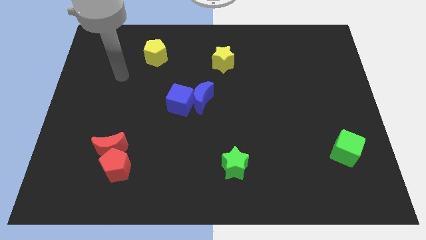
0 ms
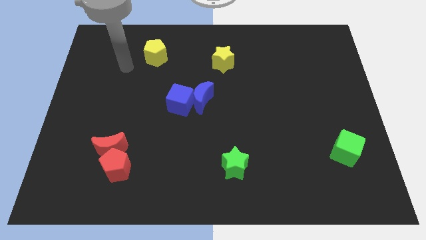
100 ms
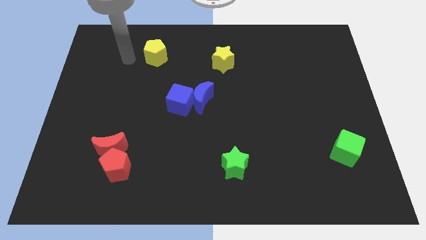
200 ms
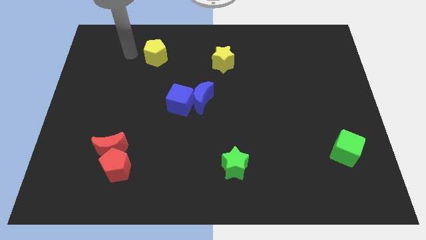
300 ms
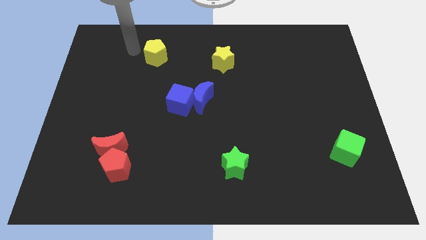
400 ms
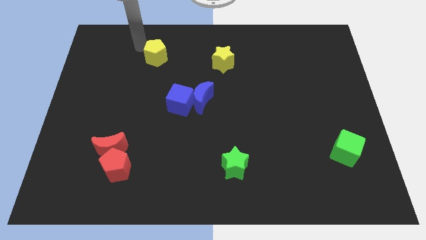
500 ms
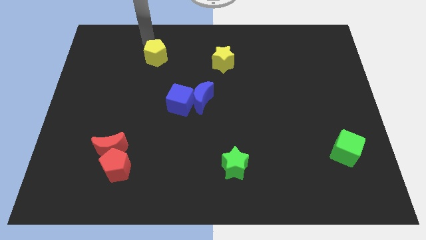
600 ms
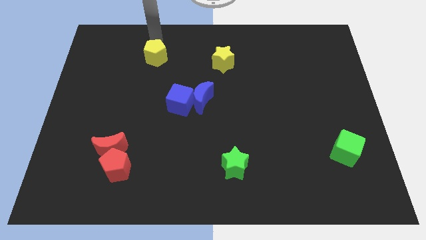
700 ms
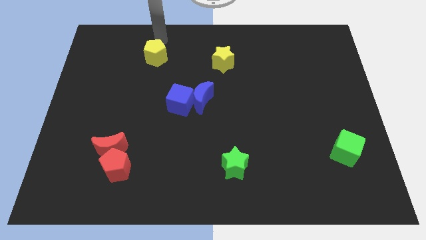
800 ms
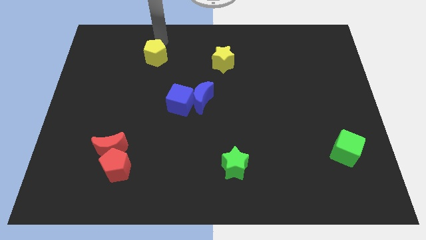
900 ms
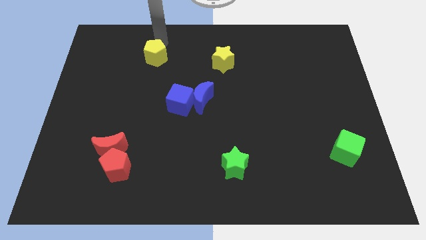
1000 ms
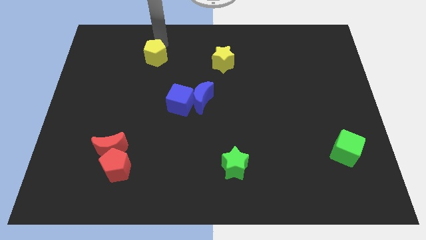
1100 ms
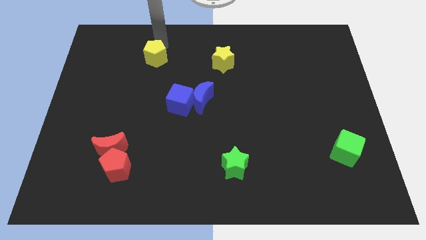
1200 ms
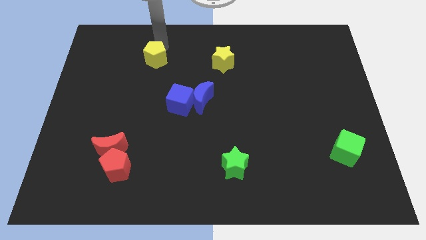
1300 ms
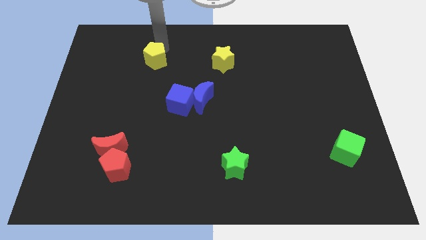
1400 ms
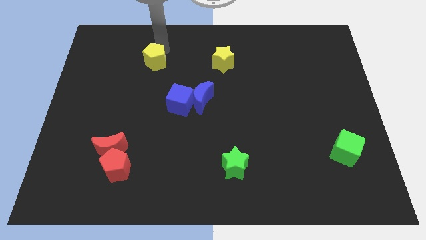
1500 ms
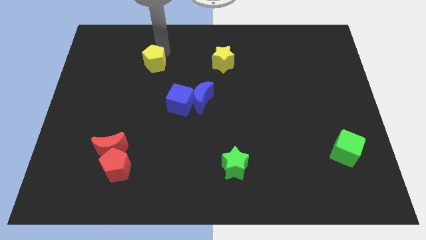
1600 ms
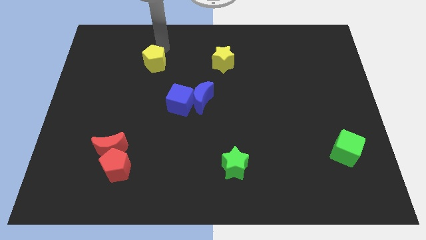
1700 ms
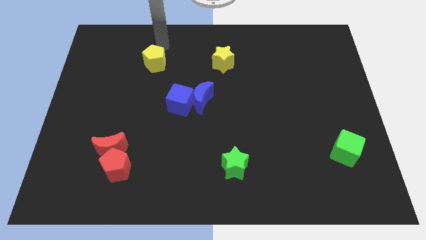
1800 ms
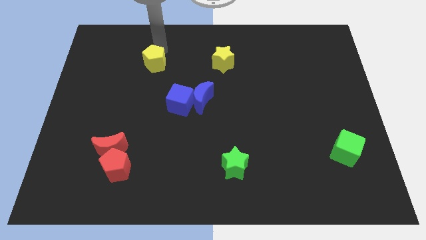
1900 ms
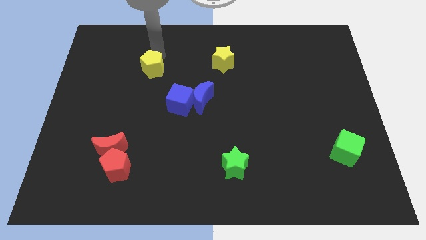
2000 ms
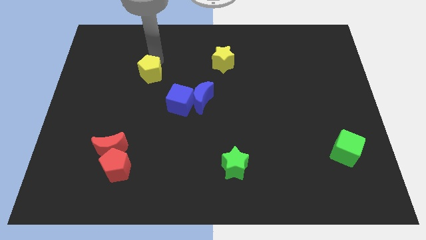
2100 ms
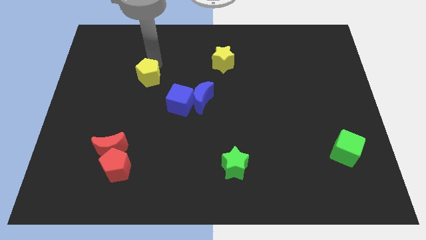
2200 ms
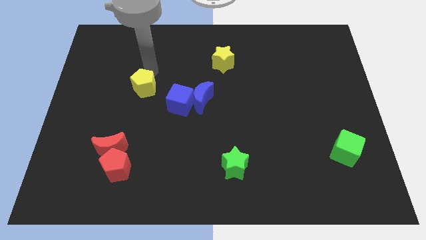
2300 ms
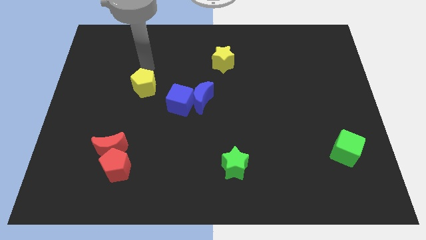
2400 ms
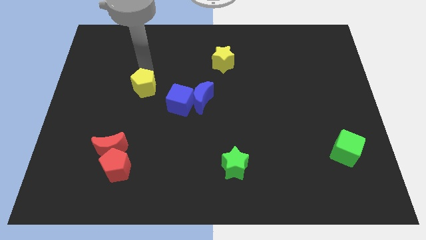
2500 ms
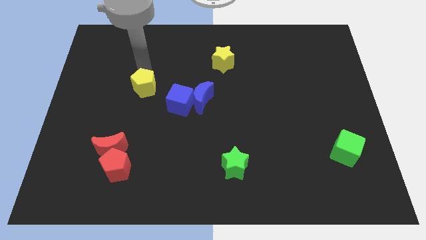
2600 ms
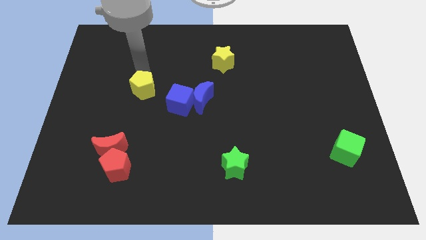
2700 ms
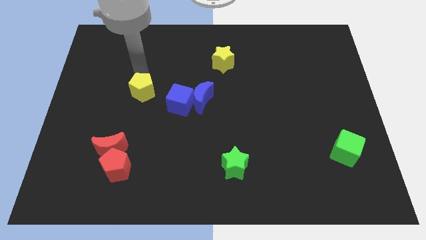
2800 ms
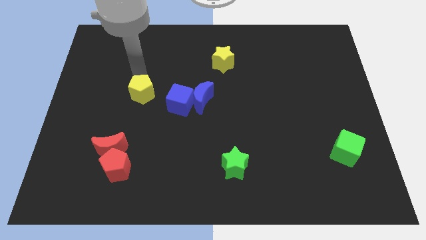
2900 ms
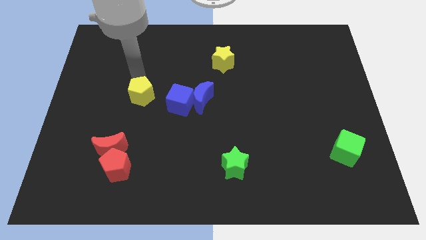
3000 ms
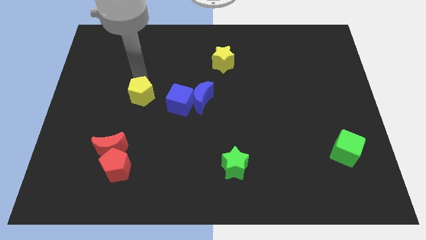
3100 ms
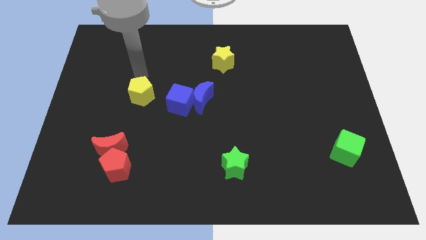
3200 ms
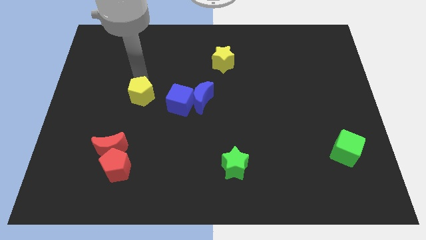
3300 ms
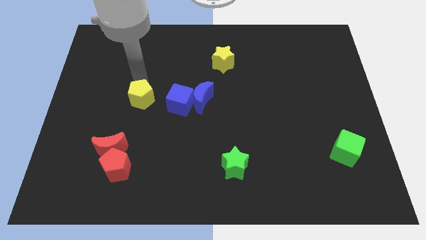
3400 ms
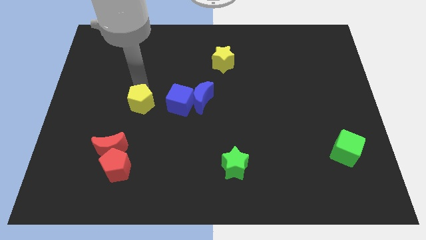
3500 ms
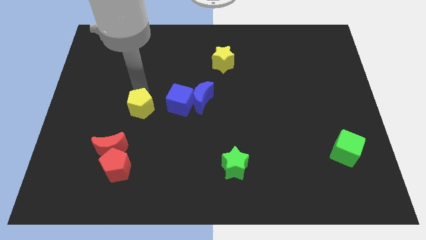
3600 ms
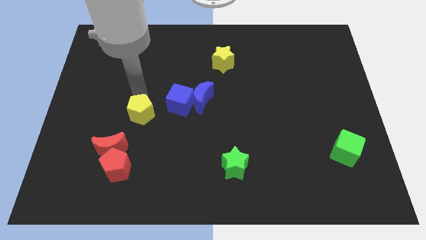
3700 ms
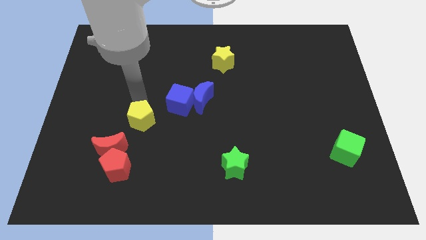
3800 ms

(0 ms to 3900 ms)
slide the yellow pentagon down

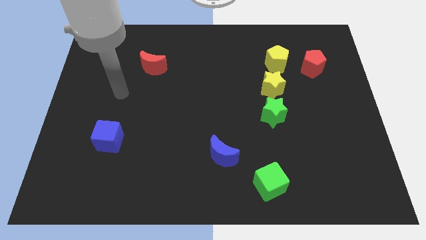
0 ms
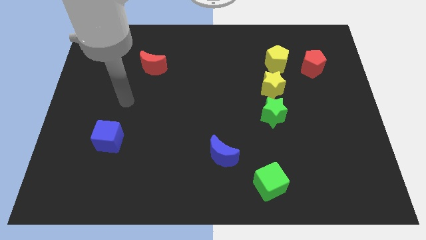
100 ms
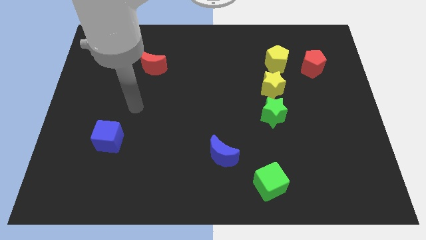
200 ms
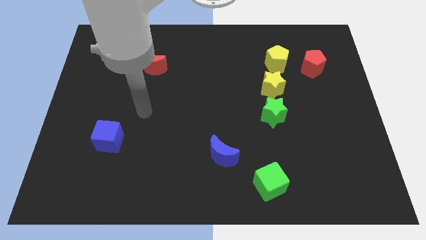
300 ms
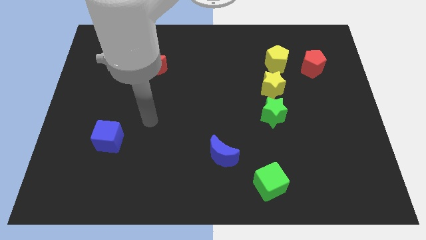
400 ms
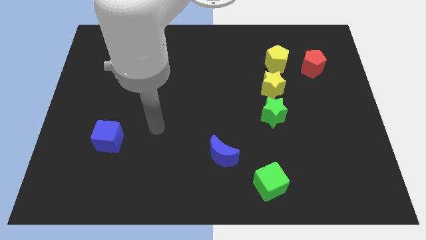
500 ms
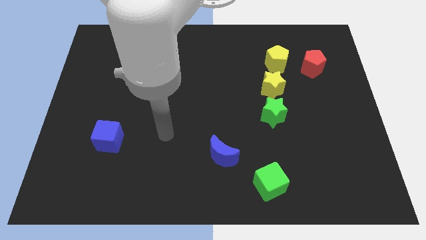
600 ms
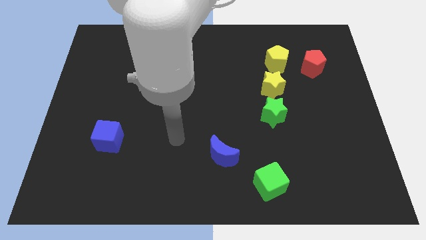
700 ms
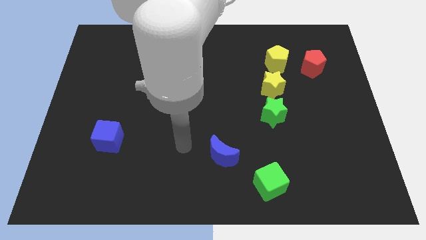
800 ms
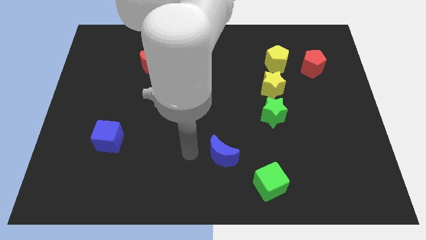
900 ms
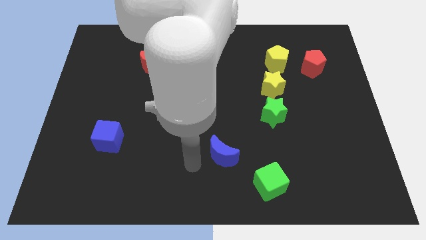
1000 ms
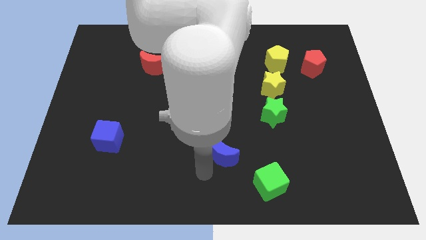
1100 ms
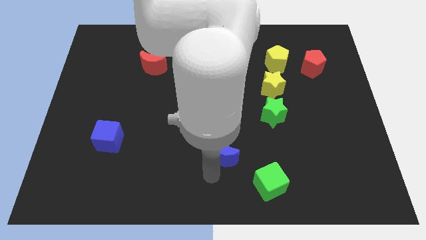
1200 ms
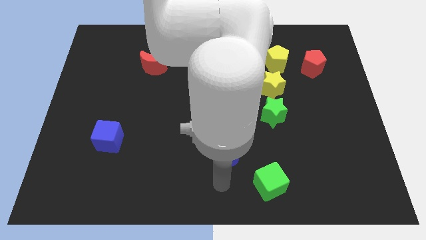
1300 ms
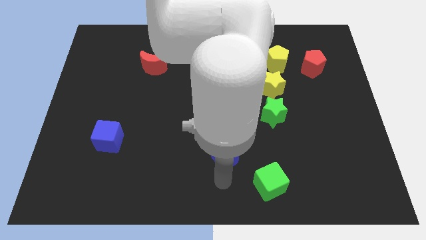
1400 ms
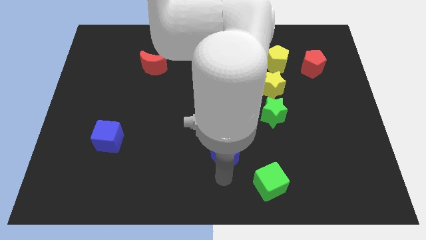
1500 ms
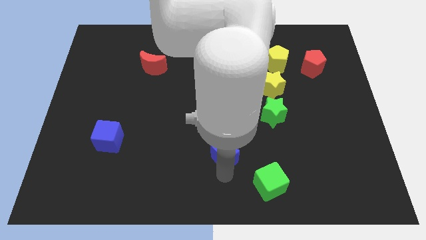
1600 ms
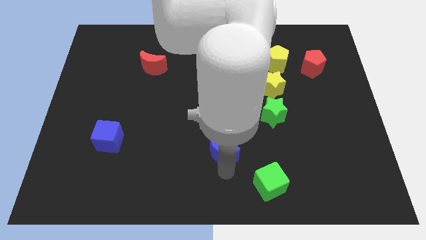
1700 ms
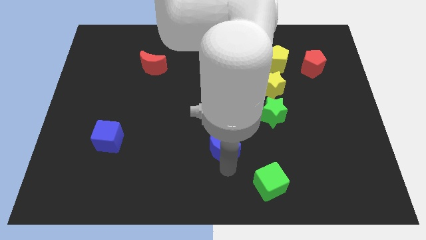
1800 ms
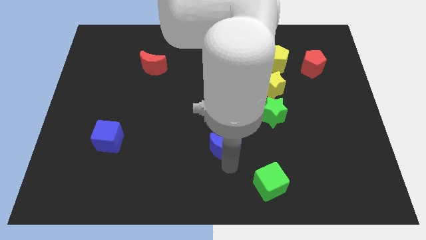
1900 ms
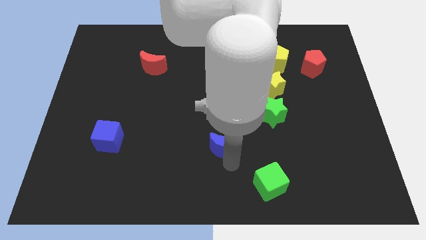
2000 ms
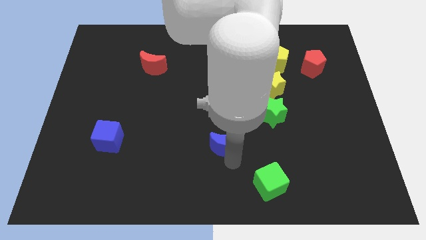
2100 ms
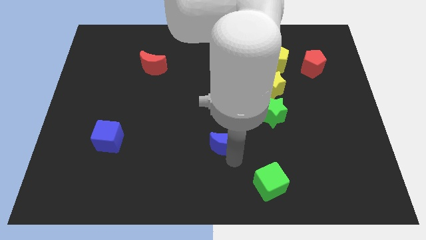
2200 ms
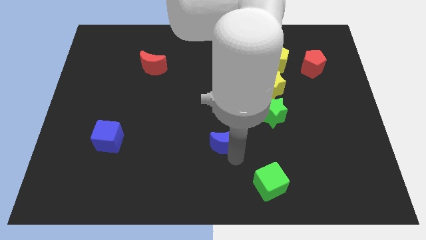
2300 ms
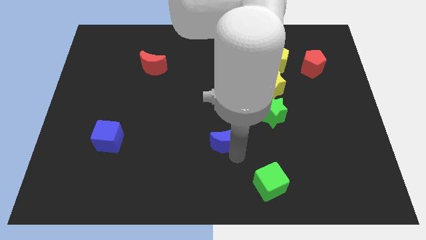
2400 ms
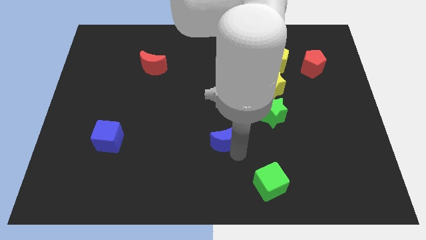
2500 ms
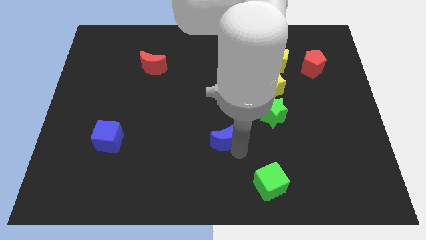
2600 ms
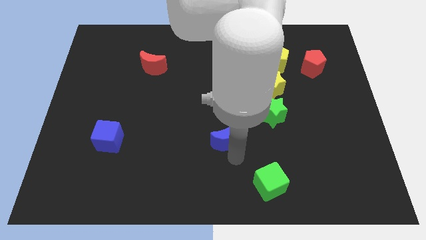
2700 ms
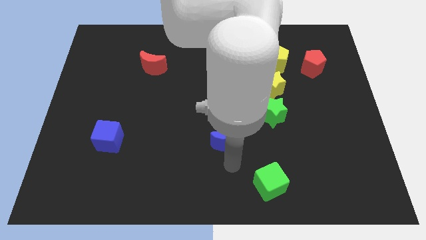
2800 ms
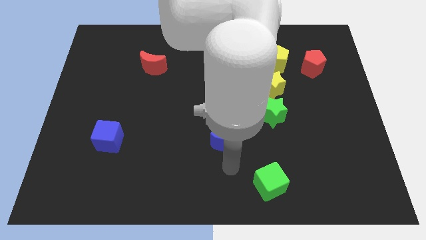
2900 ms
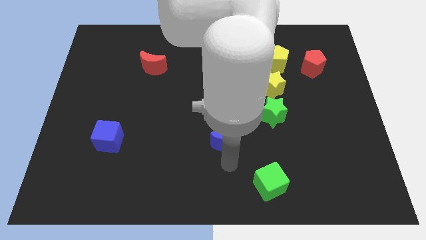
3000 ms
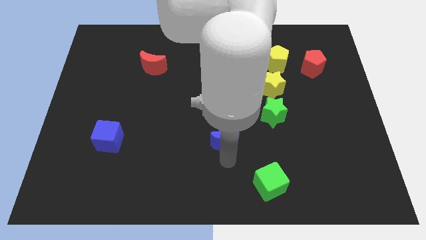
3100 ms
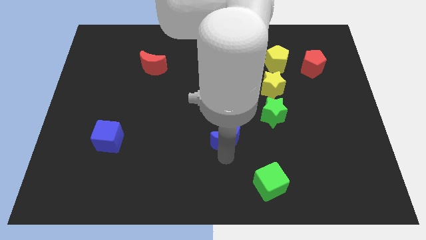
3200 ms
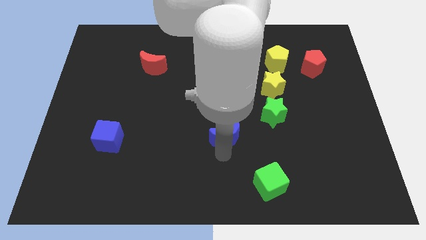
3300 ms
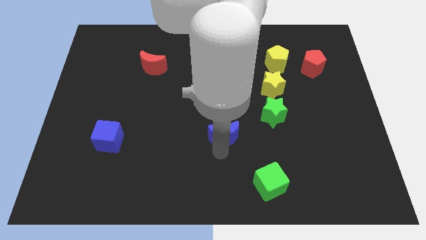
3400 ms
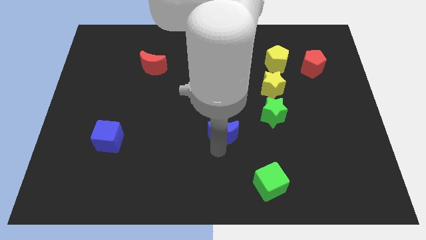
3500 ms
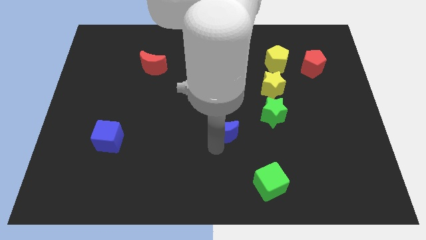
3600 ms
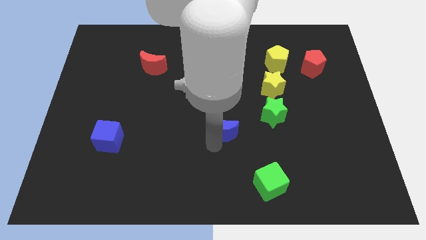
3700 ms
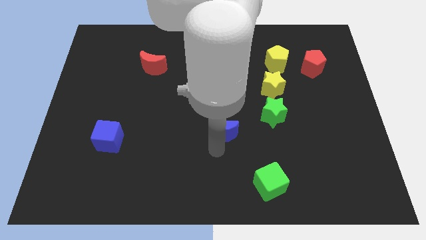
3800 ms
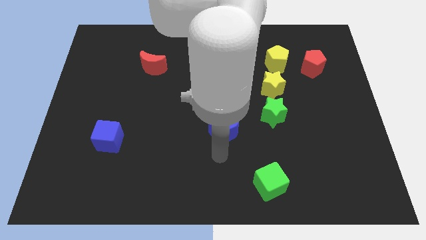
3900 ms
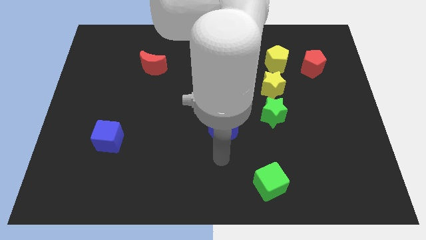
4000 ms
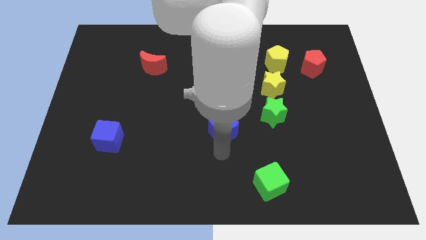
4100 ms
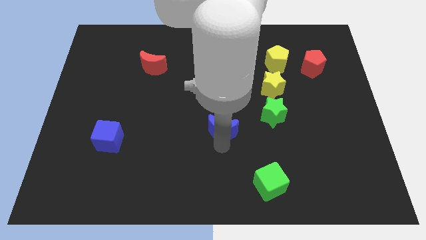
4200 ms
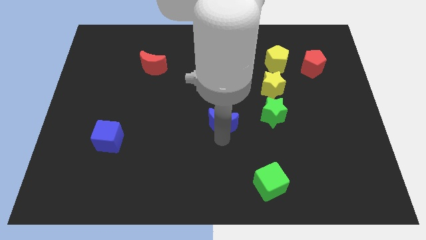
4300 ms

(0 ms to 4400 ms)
slide the blue moon upwards a bit

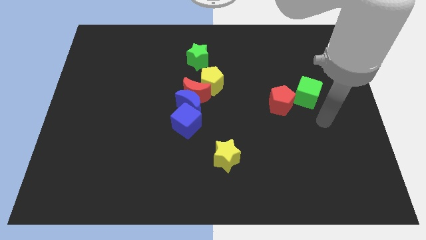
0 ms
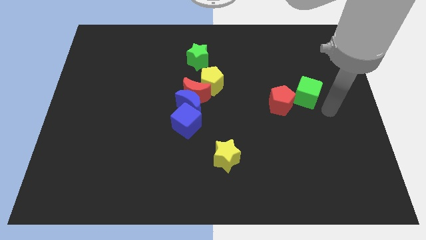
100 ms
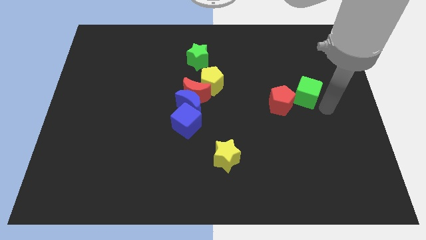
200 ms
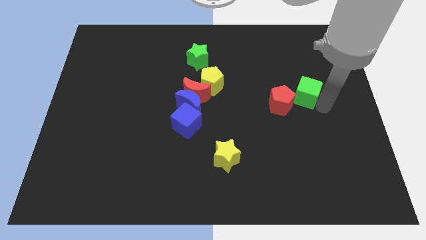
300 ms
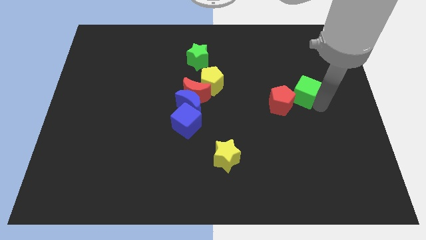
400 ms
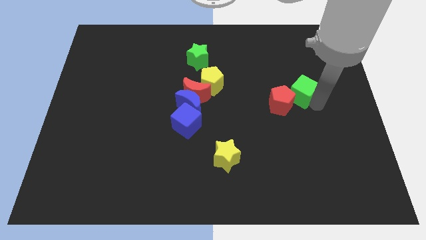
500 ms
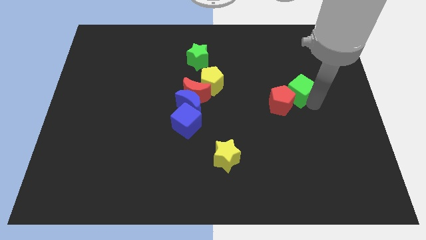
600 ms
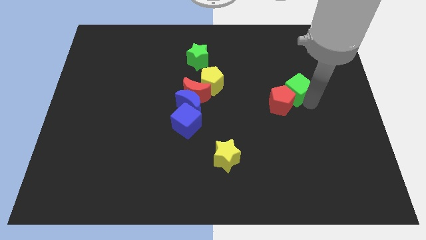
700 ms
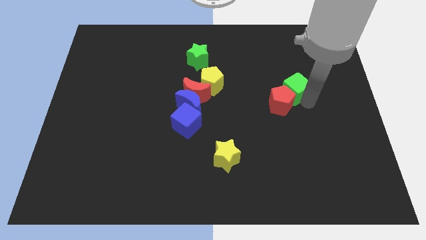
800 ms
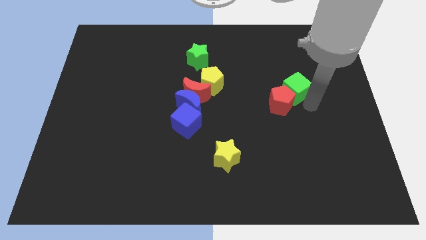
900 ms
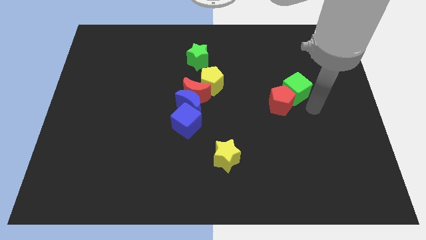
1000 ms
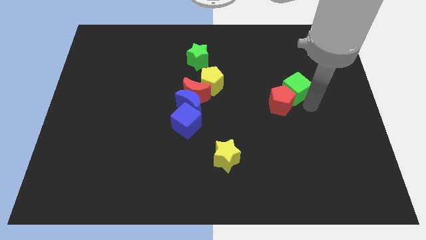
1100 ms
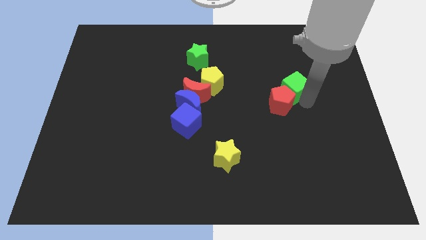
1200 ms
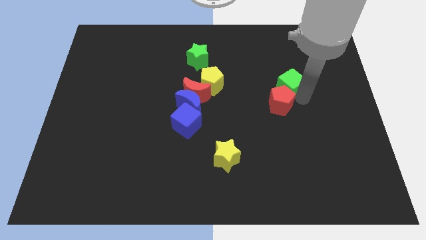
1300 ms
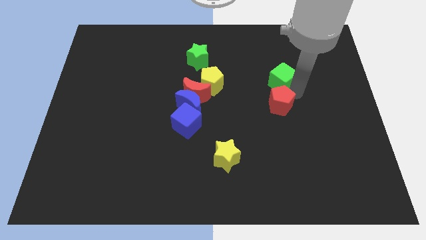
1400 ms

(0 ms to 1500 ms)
move the green cube upwards and left a bit
